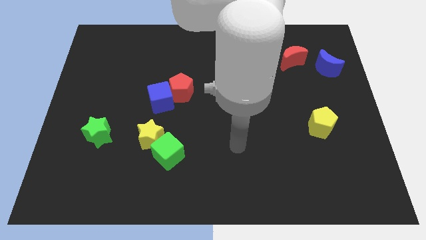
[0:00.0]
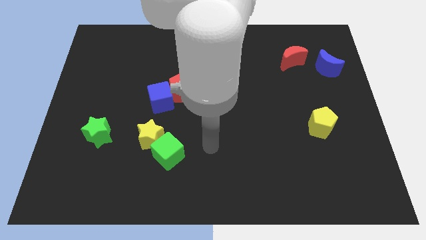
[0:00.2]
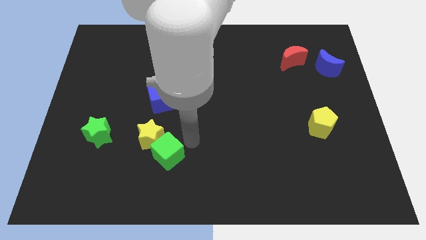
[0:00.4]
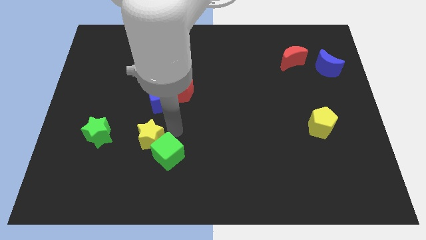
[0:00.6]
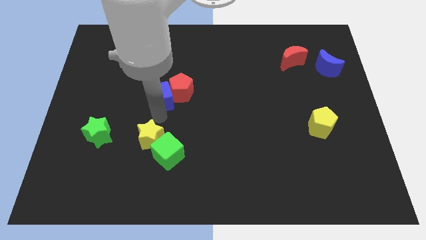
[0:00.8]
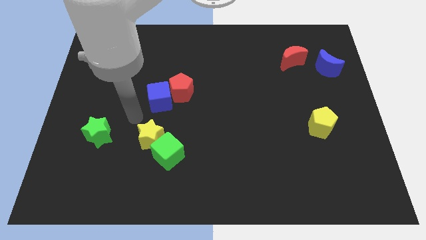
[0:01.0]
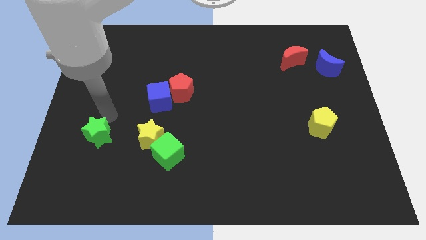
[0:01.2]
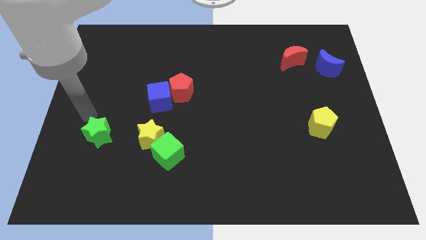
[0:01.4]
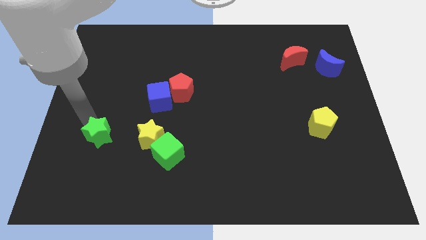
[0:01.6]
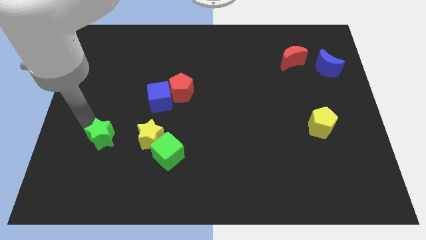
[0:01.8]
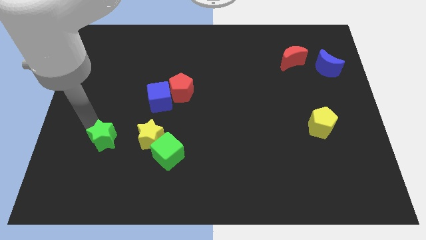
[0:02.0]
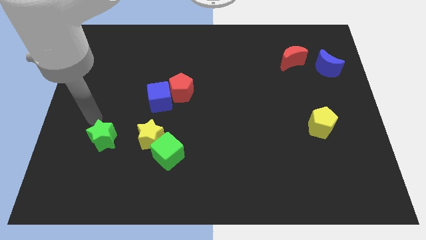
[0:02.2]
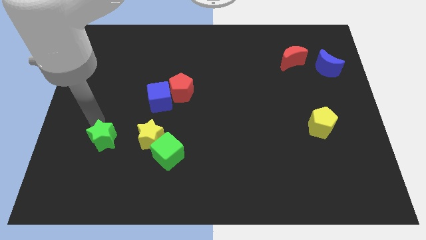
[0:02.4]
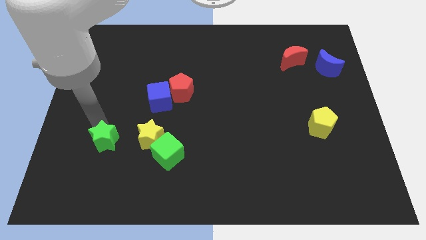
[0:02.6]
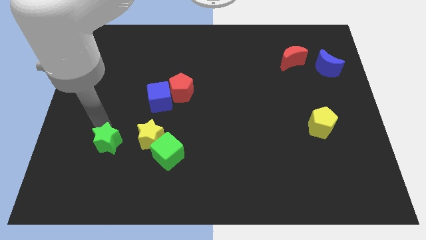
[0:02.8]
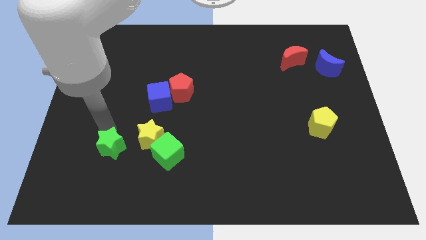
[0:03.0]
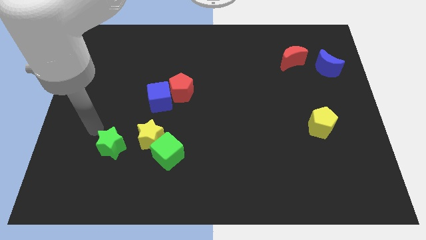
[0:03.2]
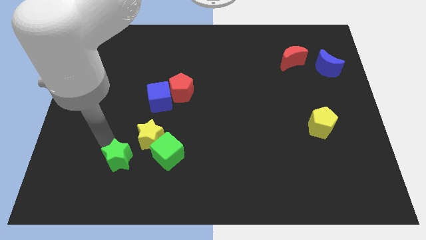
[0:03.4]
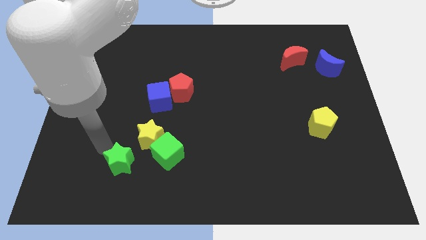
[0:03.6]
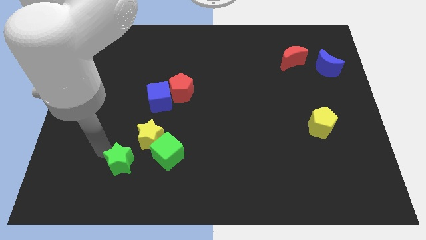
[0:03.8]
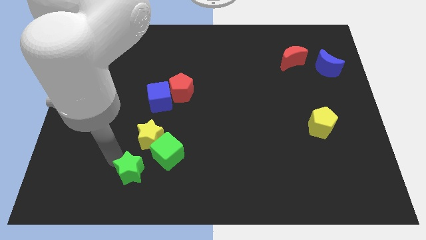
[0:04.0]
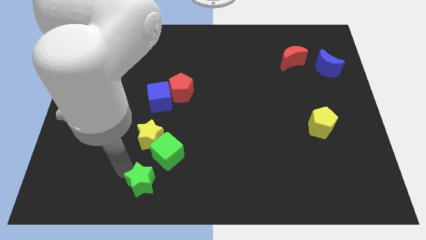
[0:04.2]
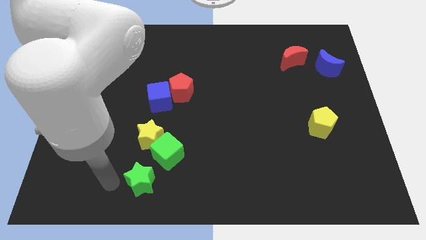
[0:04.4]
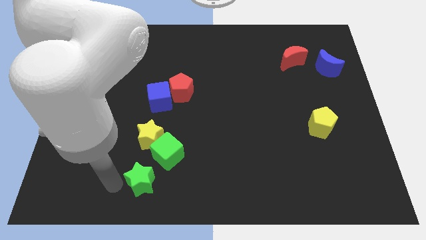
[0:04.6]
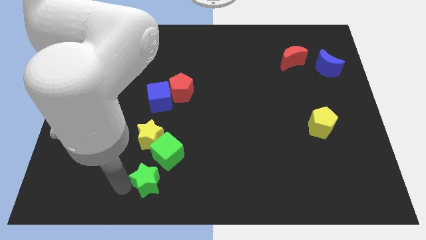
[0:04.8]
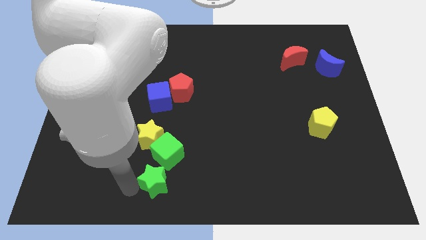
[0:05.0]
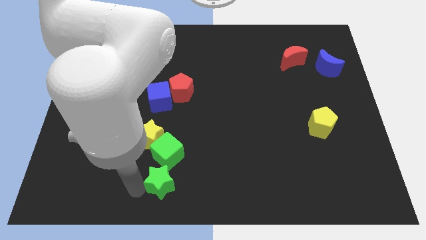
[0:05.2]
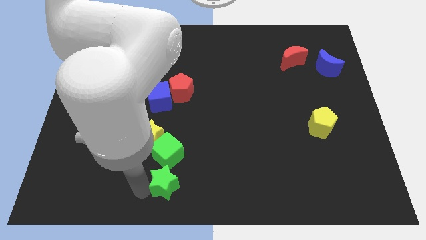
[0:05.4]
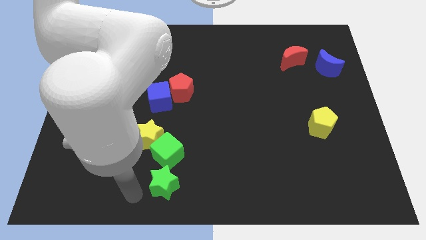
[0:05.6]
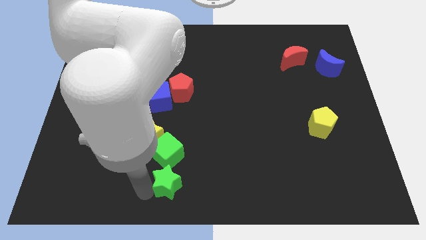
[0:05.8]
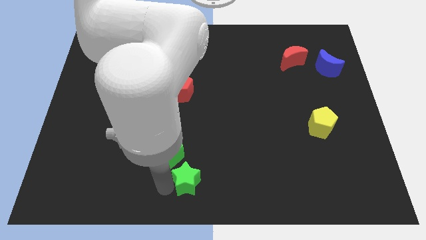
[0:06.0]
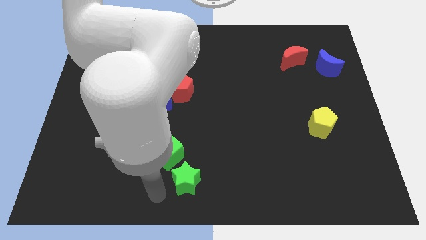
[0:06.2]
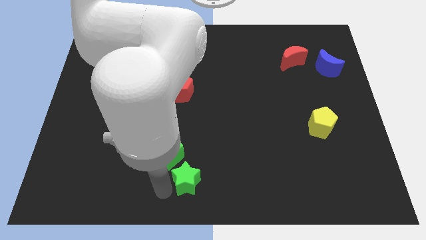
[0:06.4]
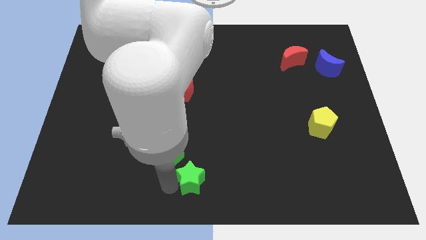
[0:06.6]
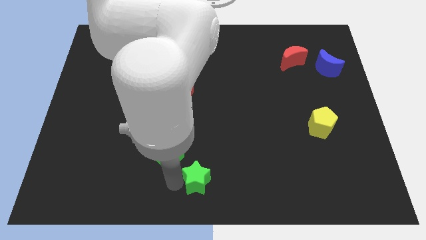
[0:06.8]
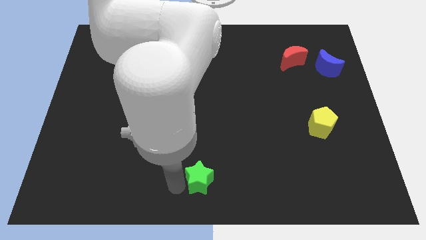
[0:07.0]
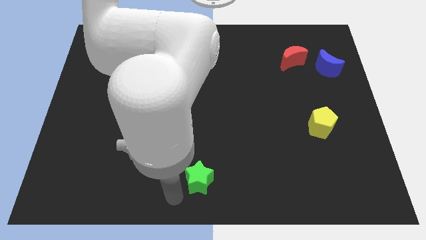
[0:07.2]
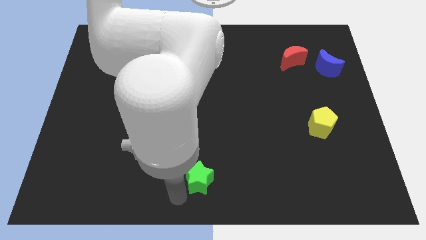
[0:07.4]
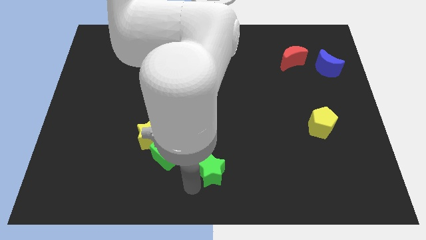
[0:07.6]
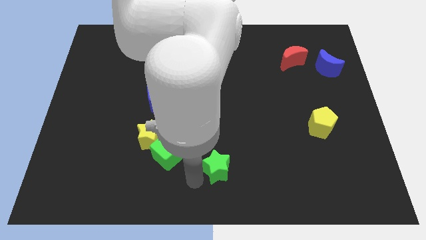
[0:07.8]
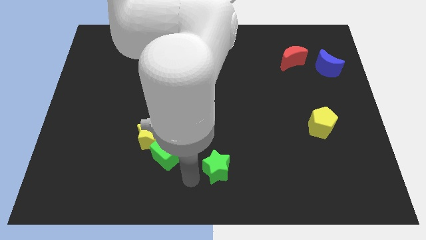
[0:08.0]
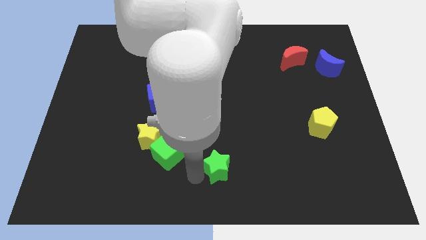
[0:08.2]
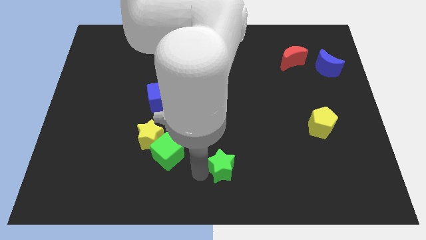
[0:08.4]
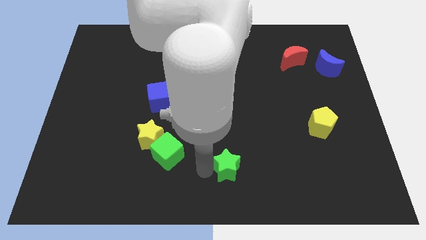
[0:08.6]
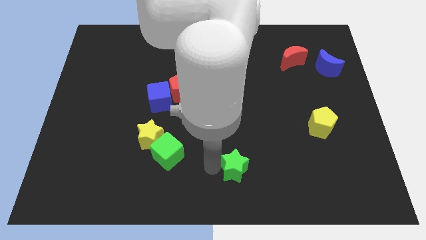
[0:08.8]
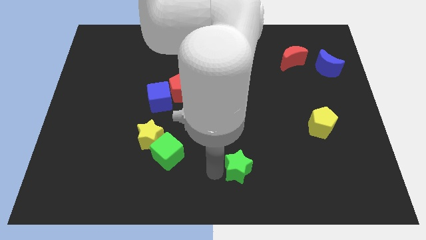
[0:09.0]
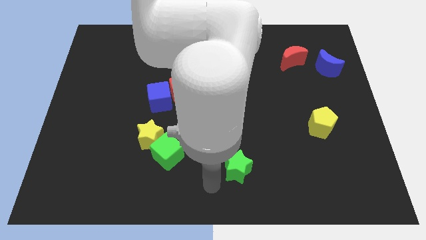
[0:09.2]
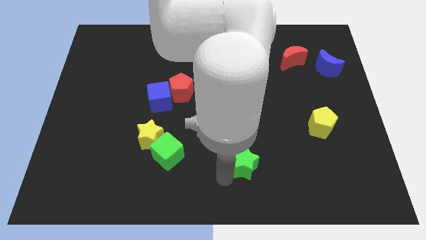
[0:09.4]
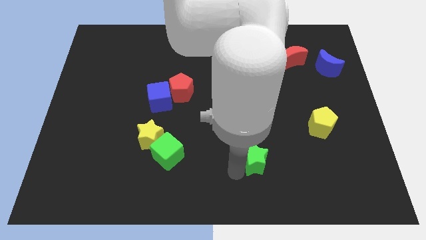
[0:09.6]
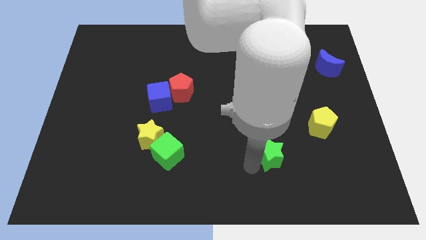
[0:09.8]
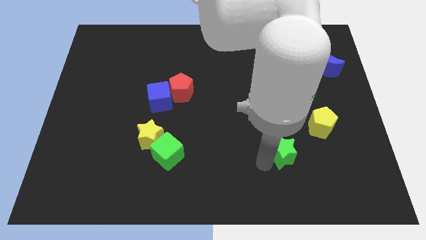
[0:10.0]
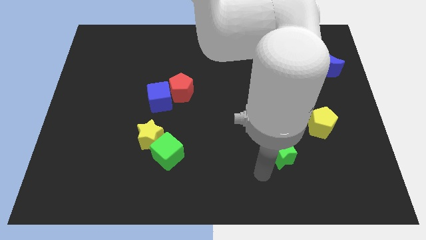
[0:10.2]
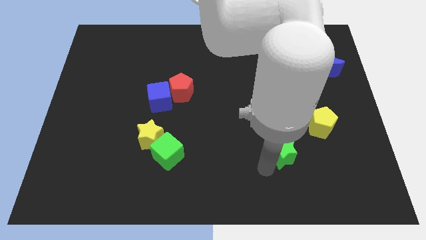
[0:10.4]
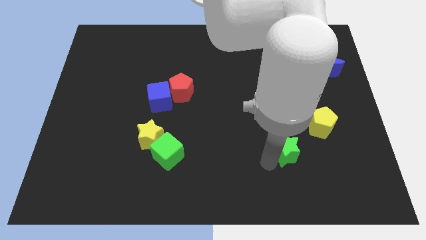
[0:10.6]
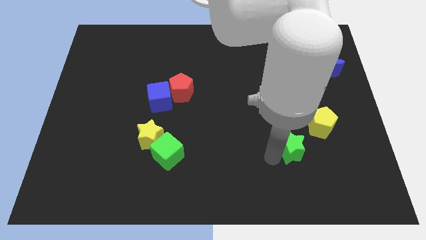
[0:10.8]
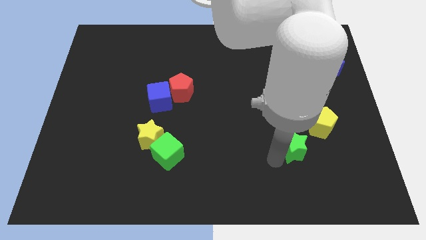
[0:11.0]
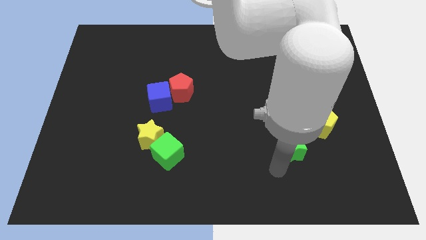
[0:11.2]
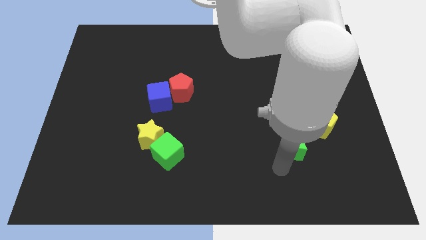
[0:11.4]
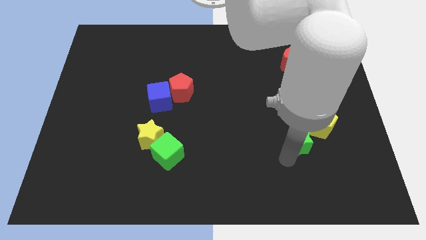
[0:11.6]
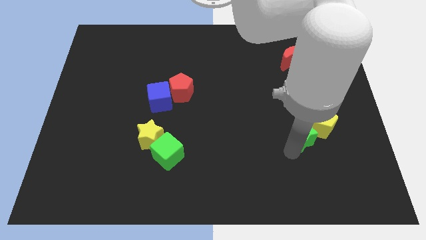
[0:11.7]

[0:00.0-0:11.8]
move the green star close to the yellow pentagon

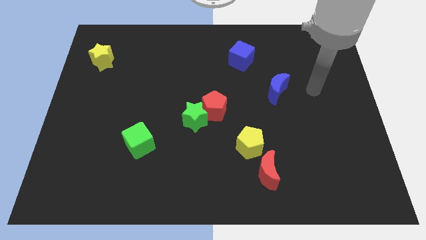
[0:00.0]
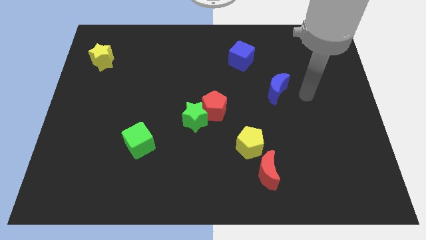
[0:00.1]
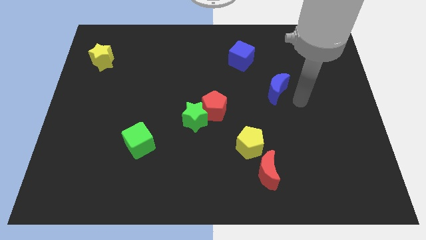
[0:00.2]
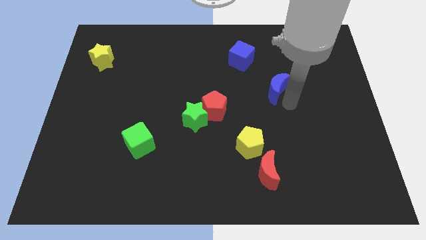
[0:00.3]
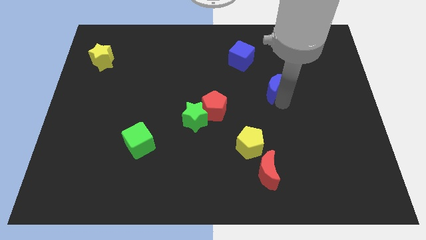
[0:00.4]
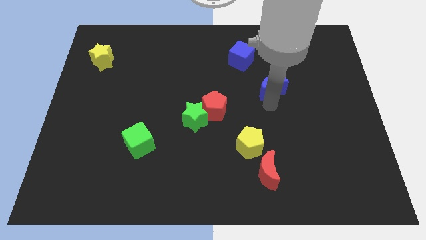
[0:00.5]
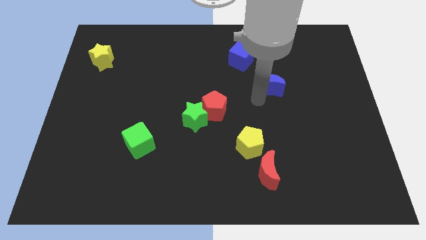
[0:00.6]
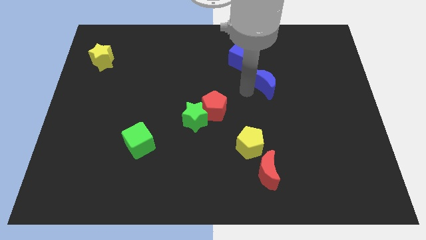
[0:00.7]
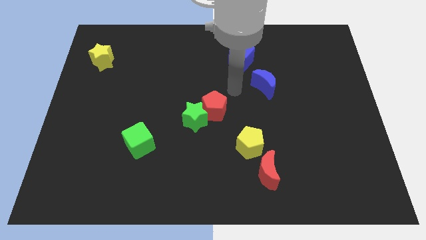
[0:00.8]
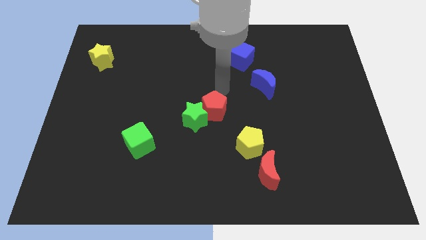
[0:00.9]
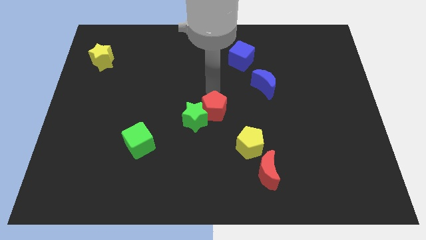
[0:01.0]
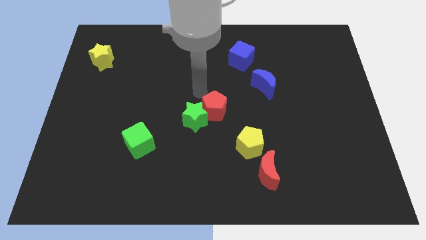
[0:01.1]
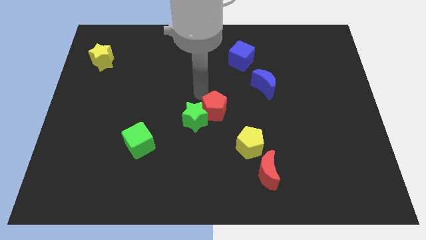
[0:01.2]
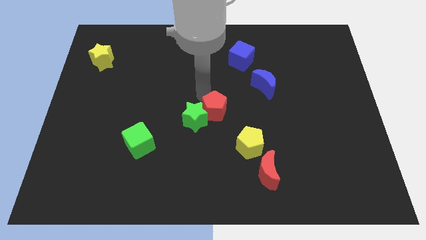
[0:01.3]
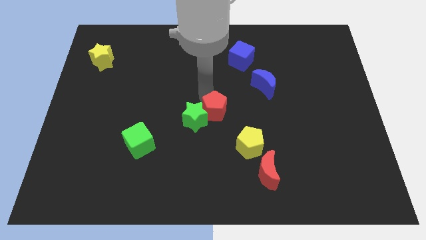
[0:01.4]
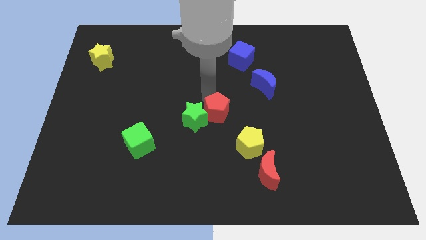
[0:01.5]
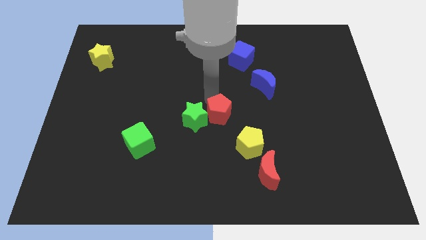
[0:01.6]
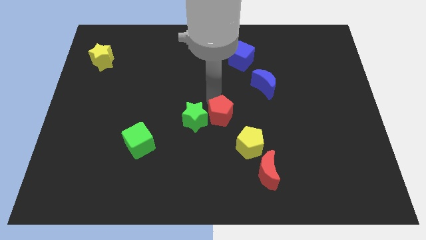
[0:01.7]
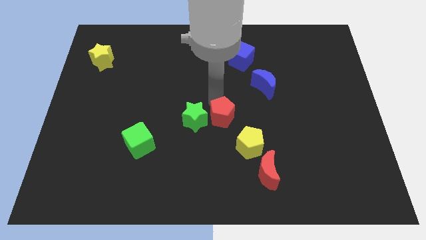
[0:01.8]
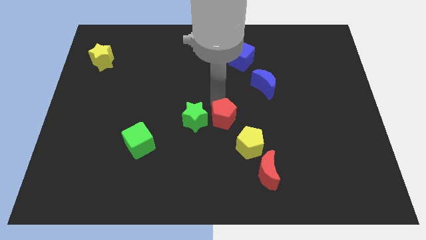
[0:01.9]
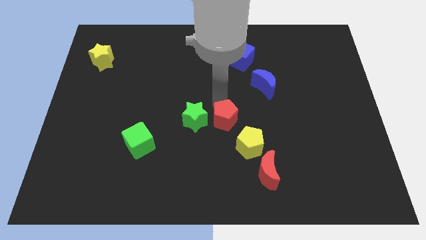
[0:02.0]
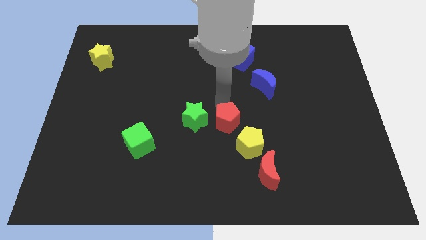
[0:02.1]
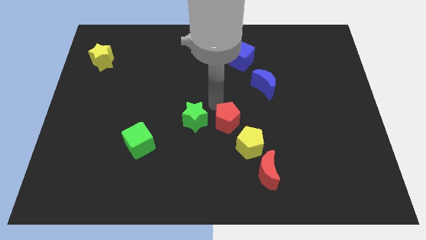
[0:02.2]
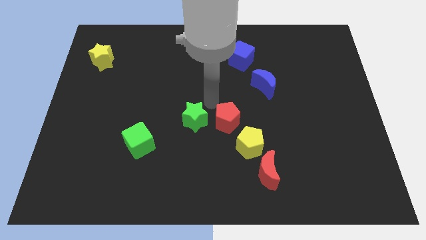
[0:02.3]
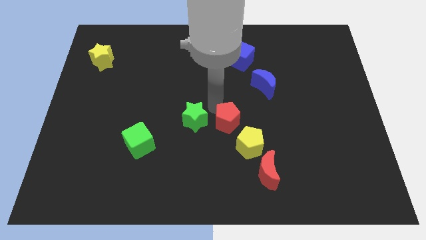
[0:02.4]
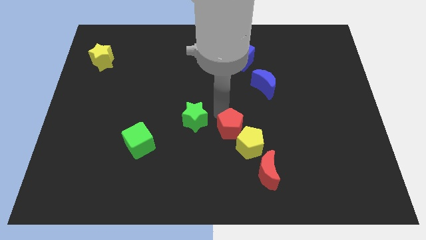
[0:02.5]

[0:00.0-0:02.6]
slide the red pentagon close to the yellow pentagon
